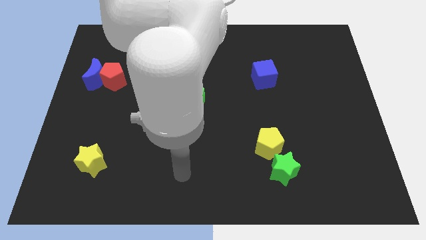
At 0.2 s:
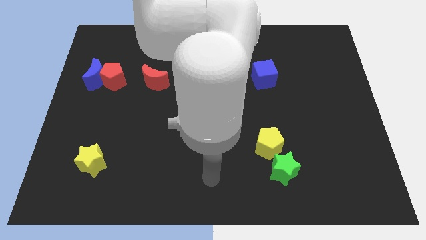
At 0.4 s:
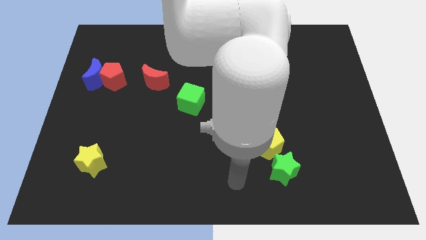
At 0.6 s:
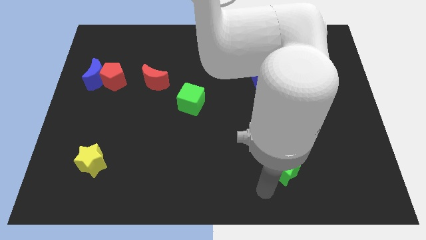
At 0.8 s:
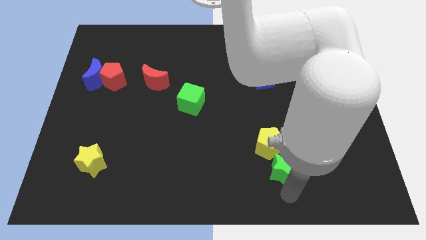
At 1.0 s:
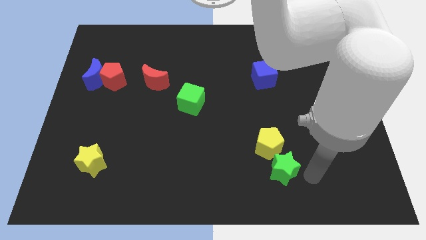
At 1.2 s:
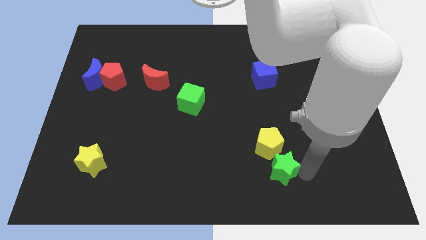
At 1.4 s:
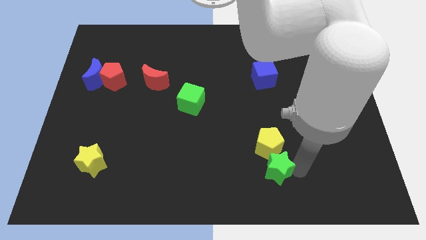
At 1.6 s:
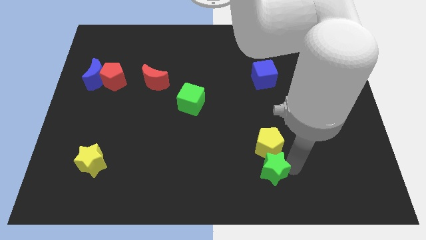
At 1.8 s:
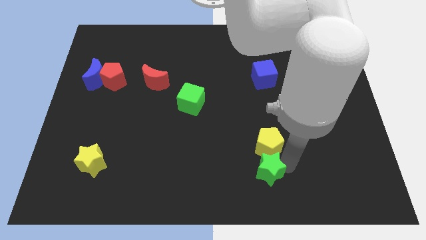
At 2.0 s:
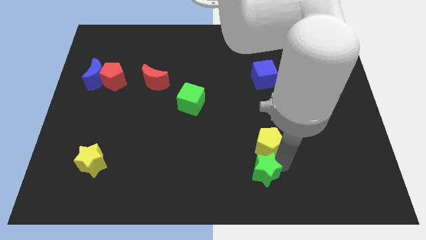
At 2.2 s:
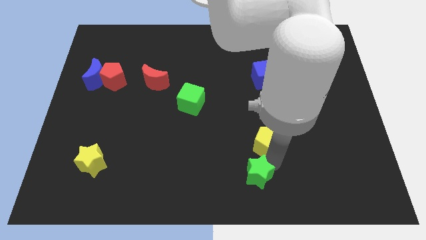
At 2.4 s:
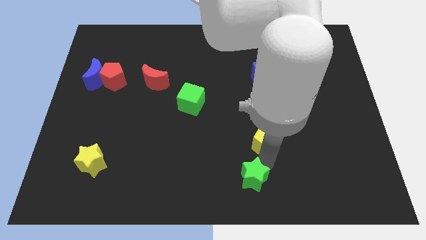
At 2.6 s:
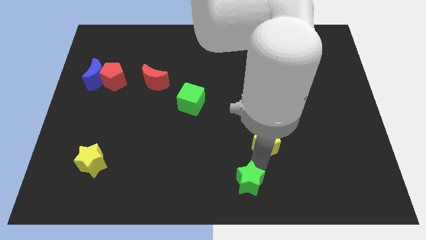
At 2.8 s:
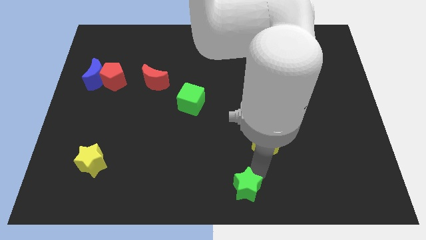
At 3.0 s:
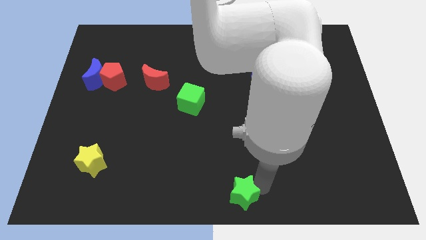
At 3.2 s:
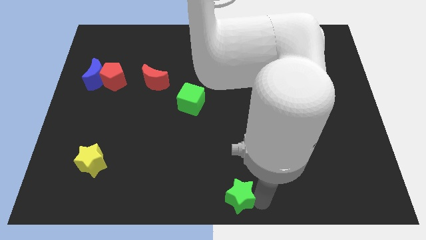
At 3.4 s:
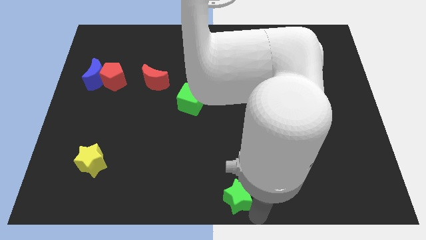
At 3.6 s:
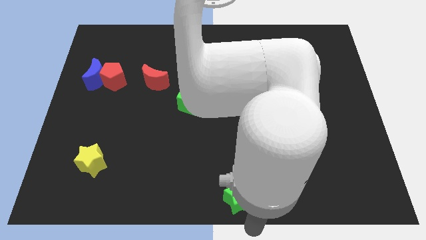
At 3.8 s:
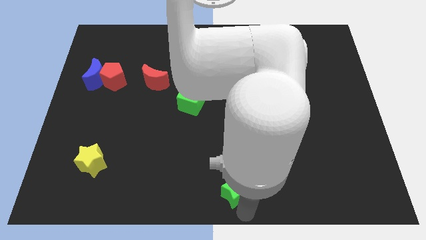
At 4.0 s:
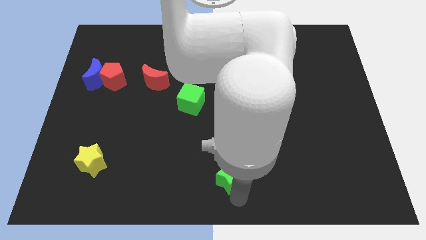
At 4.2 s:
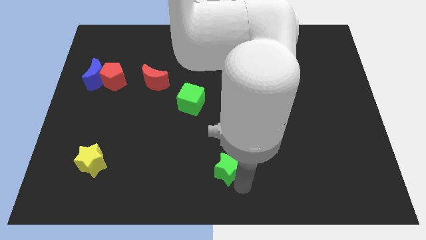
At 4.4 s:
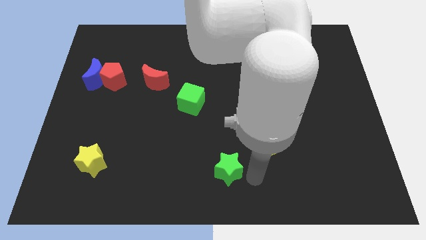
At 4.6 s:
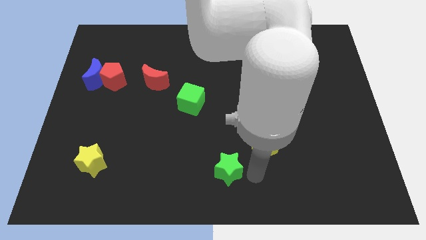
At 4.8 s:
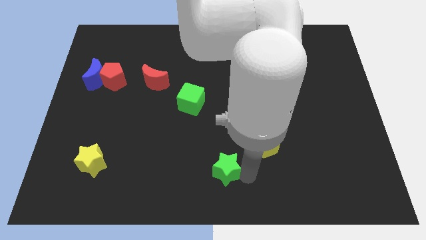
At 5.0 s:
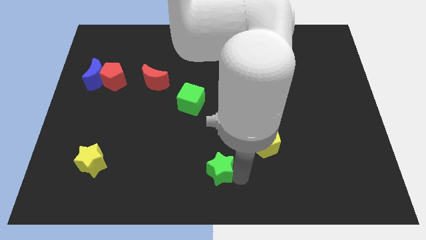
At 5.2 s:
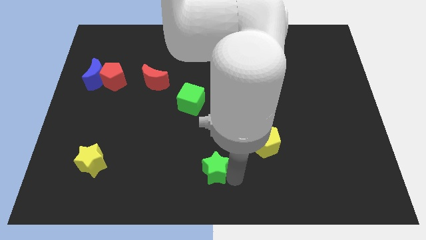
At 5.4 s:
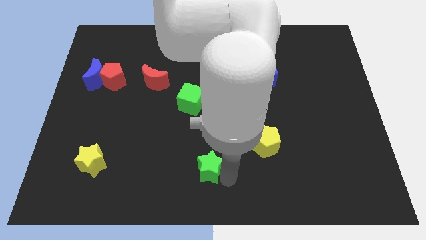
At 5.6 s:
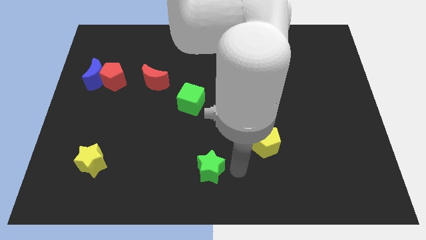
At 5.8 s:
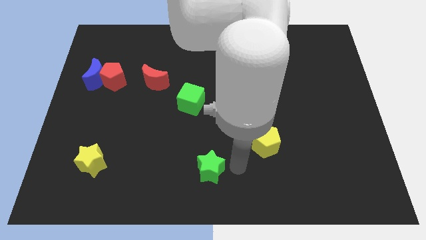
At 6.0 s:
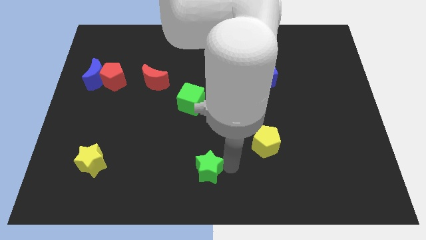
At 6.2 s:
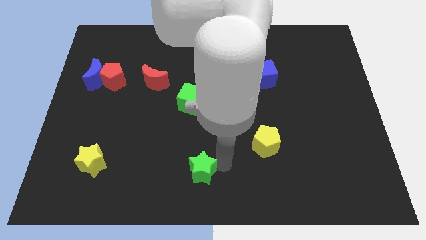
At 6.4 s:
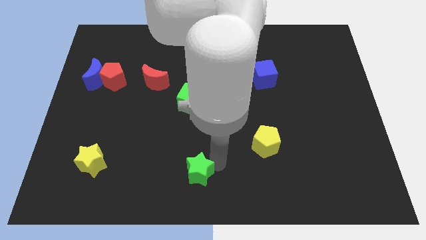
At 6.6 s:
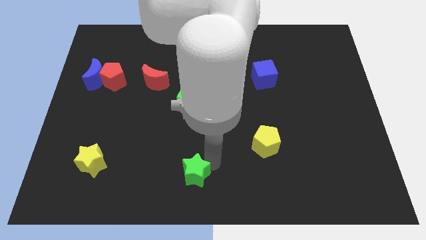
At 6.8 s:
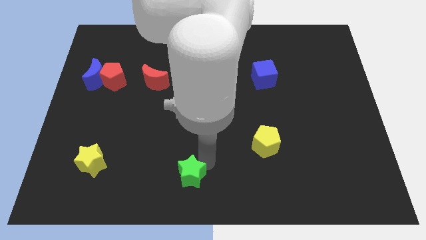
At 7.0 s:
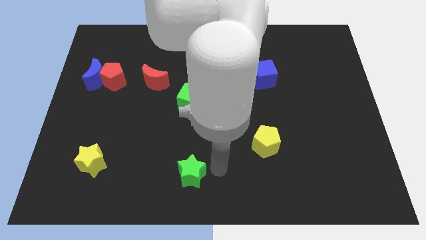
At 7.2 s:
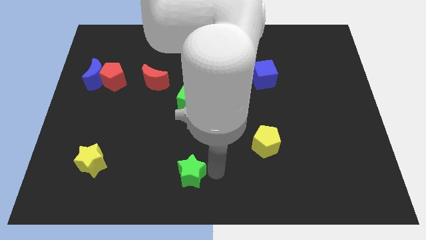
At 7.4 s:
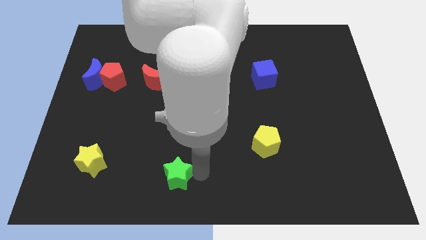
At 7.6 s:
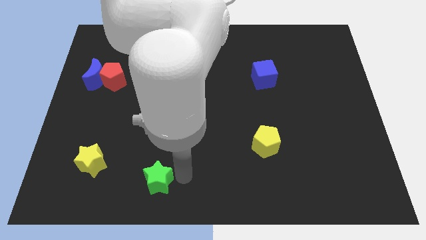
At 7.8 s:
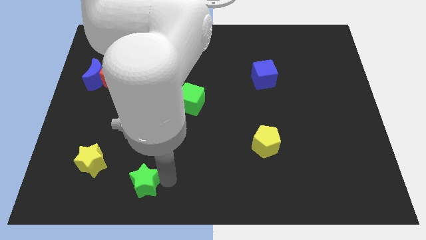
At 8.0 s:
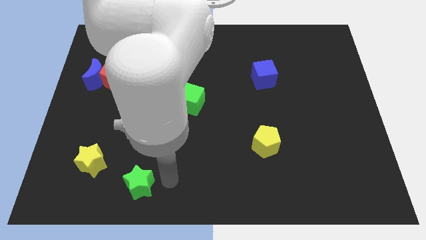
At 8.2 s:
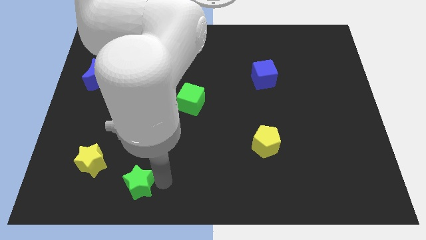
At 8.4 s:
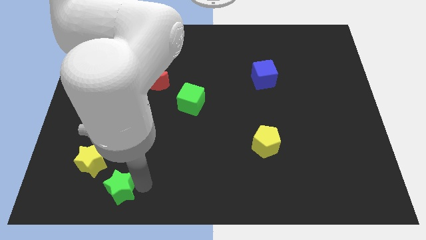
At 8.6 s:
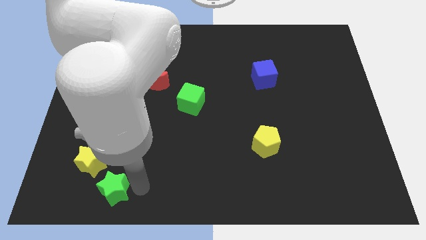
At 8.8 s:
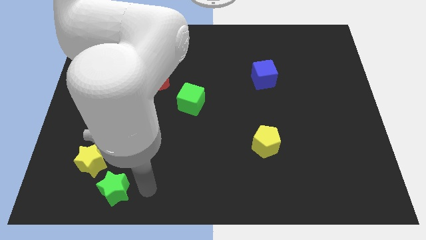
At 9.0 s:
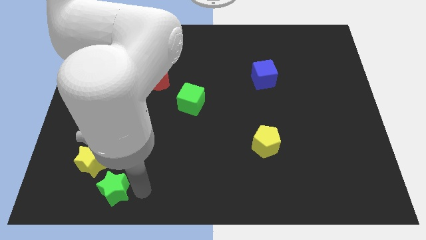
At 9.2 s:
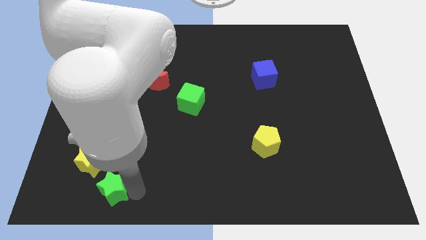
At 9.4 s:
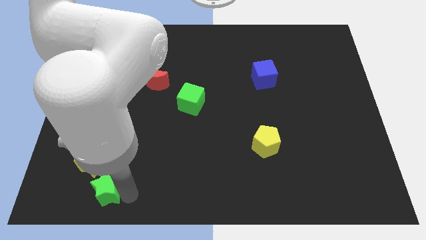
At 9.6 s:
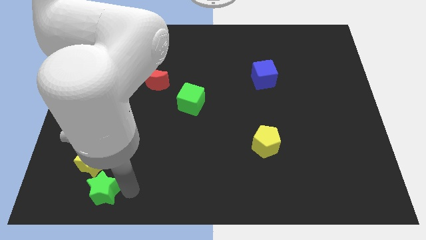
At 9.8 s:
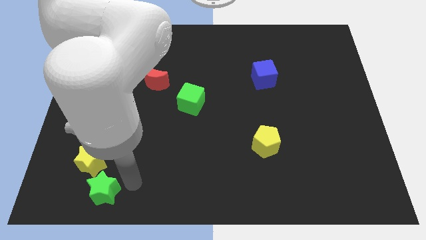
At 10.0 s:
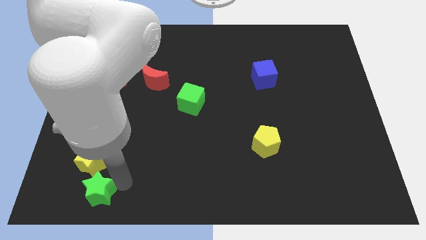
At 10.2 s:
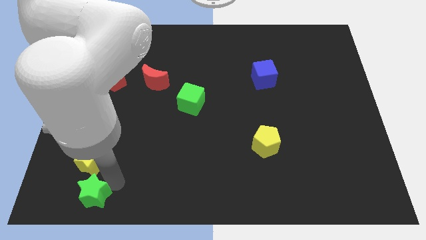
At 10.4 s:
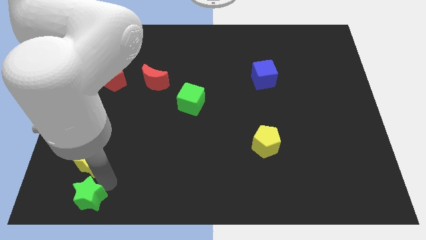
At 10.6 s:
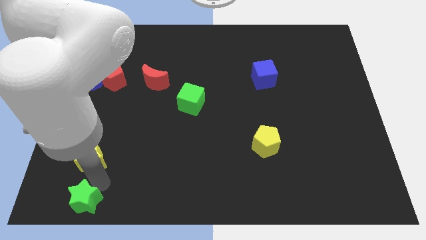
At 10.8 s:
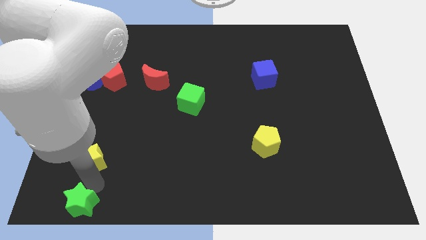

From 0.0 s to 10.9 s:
move the green star to the bottom left

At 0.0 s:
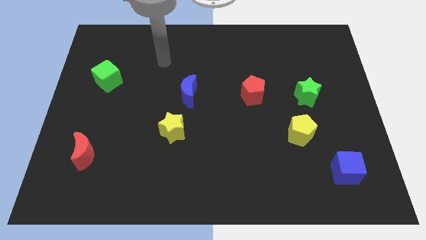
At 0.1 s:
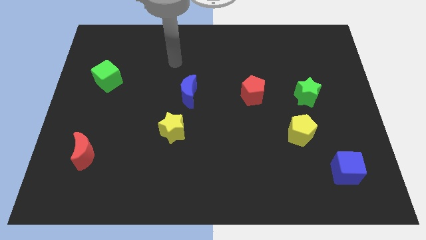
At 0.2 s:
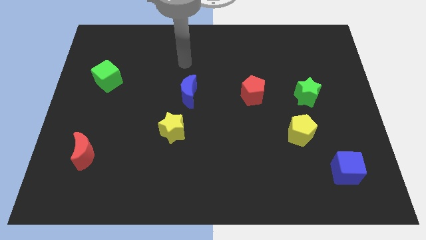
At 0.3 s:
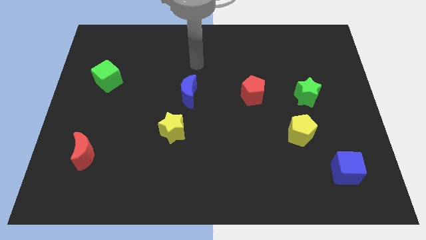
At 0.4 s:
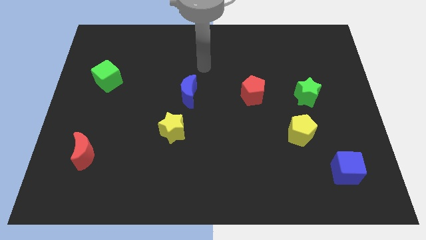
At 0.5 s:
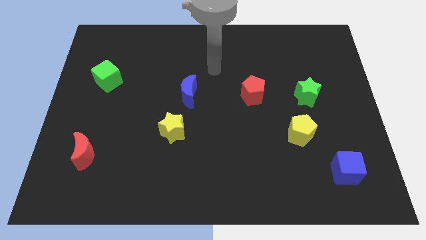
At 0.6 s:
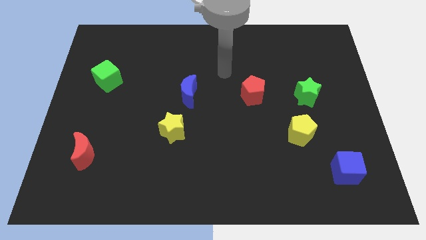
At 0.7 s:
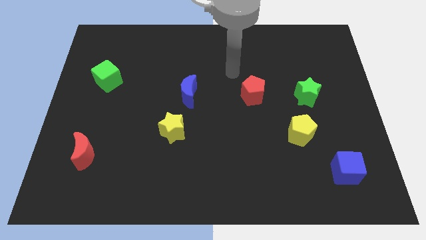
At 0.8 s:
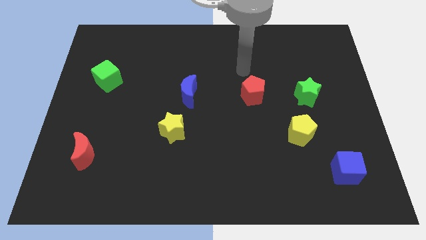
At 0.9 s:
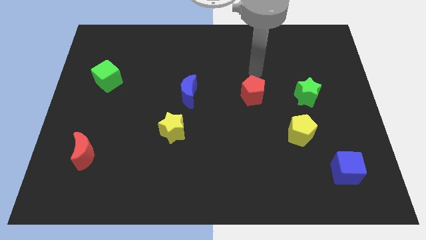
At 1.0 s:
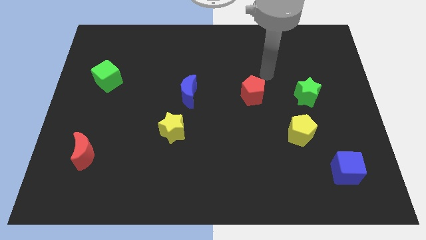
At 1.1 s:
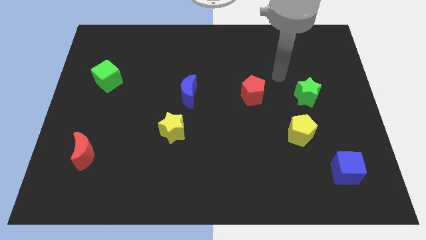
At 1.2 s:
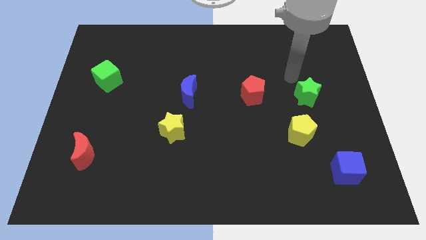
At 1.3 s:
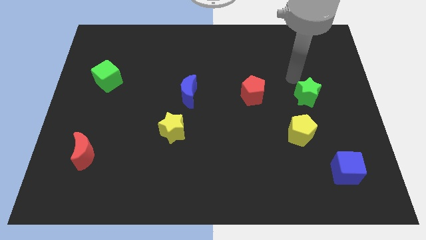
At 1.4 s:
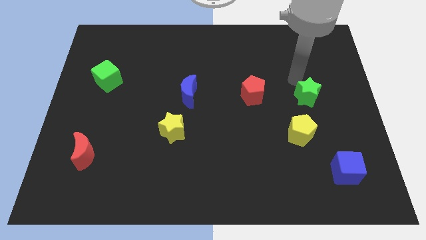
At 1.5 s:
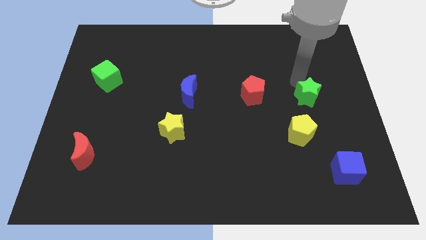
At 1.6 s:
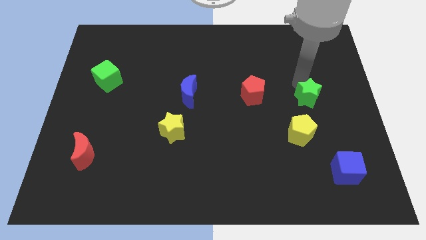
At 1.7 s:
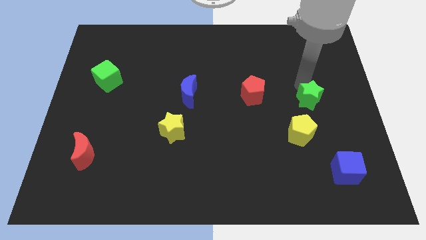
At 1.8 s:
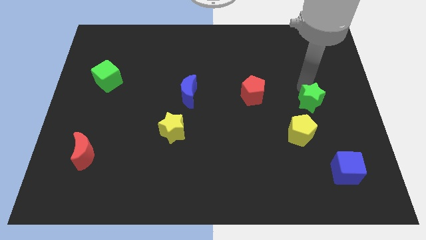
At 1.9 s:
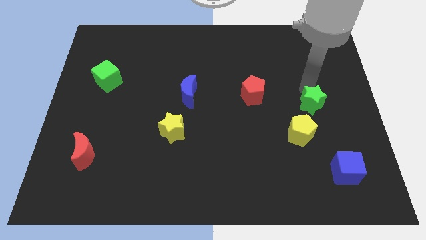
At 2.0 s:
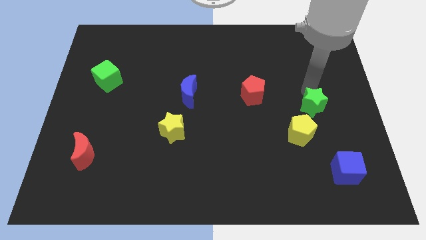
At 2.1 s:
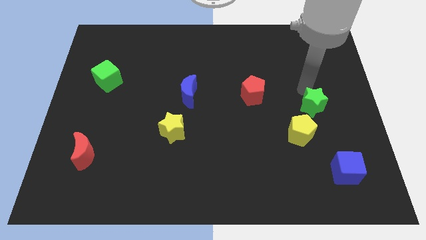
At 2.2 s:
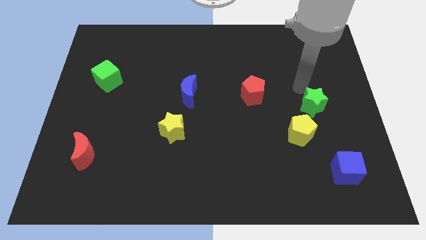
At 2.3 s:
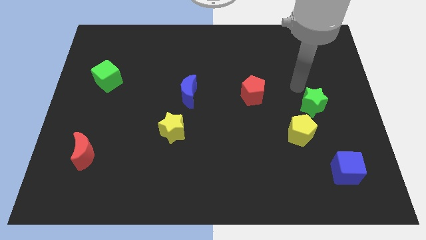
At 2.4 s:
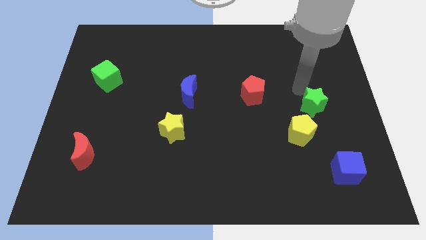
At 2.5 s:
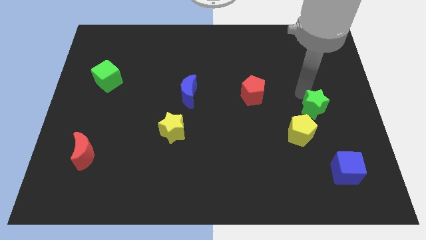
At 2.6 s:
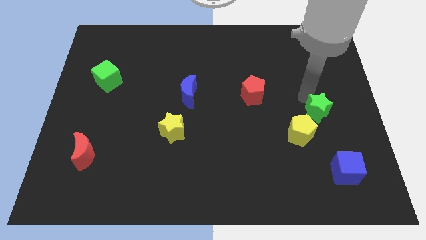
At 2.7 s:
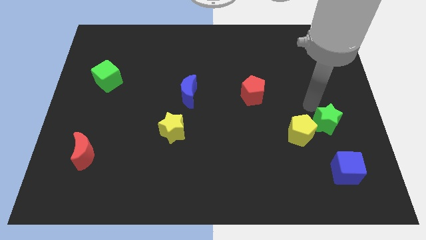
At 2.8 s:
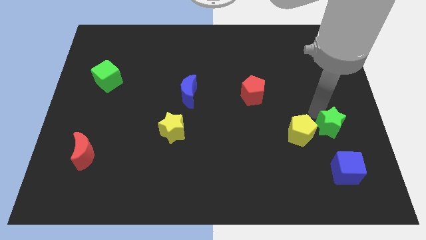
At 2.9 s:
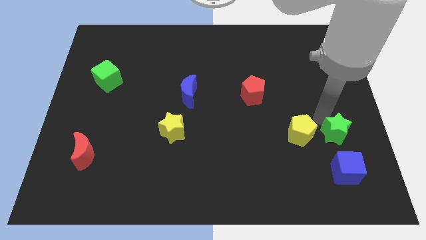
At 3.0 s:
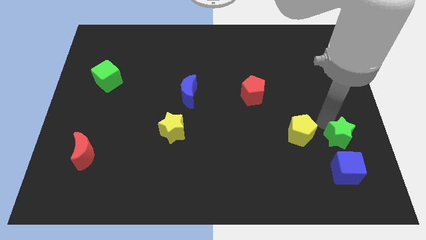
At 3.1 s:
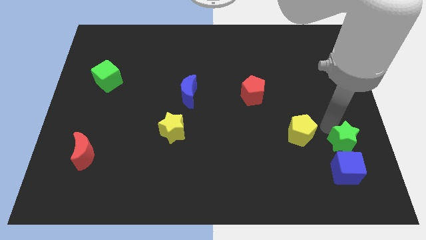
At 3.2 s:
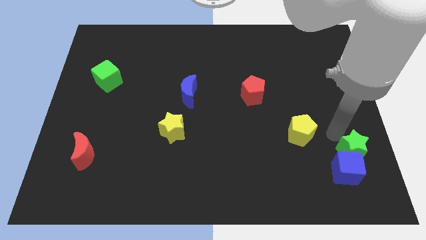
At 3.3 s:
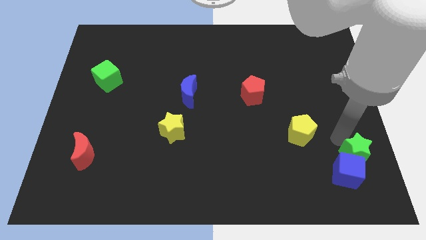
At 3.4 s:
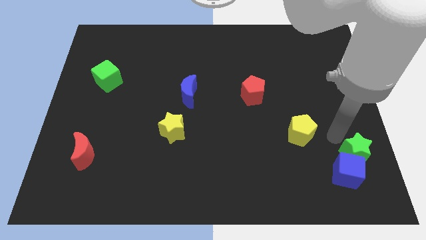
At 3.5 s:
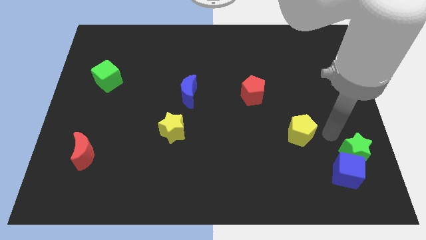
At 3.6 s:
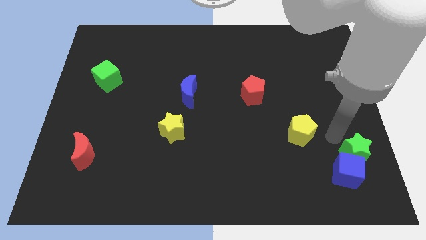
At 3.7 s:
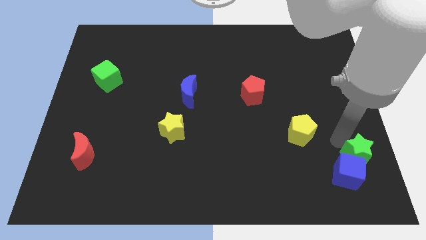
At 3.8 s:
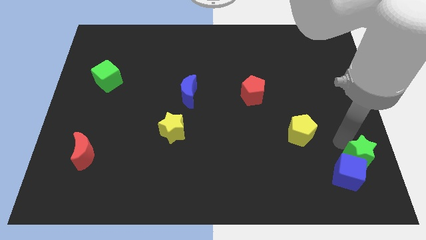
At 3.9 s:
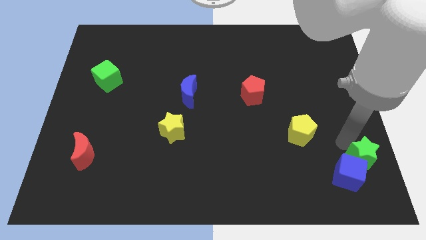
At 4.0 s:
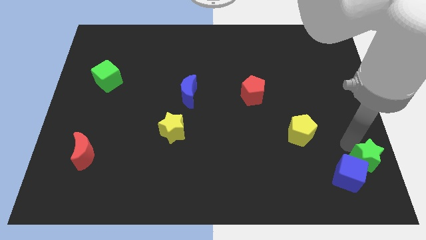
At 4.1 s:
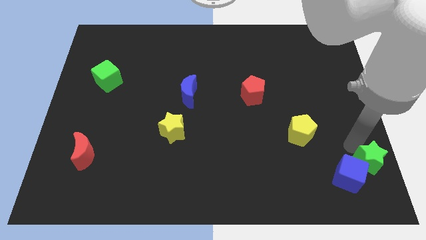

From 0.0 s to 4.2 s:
slide the green star to the bottom right of the board
